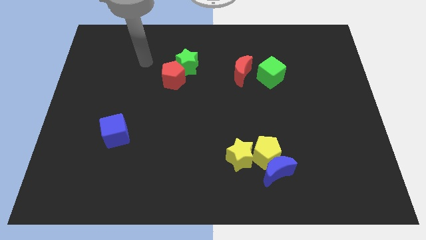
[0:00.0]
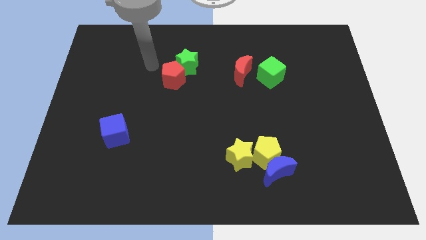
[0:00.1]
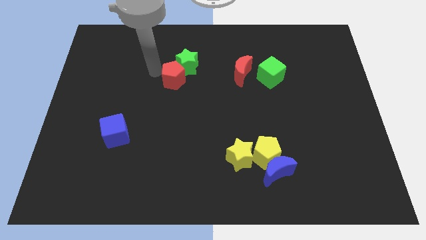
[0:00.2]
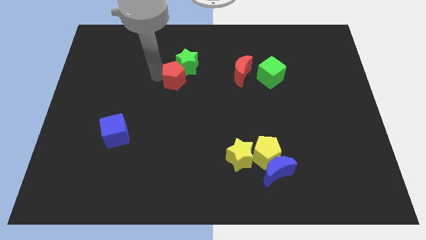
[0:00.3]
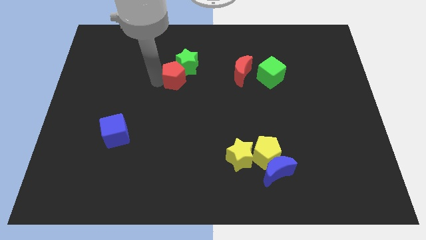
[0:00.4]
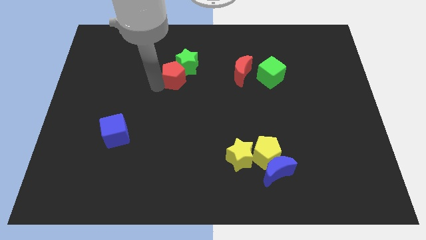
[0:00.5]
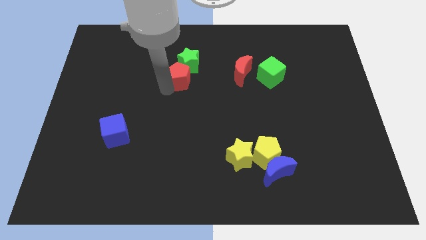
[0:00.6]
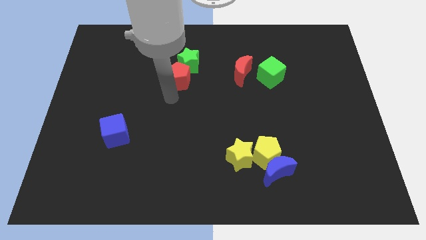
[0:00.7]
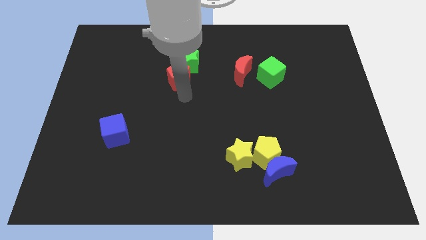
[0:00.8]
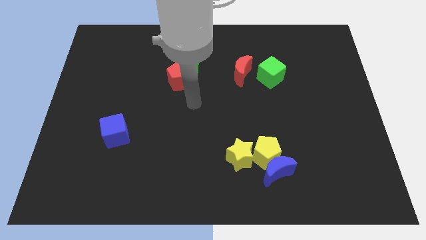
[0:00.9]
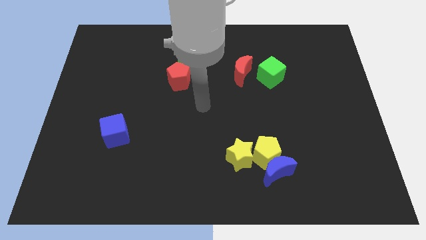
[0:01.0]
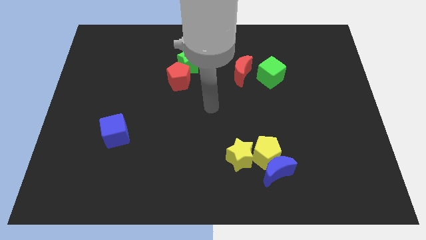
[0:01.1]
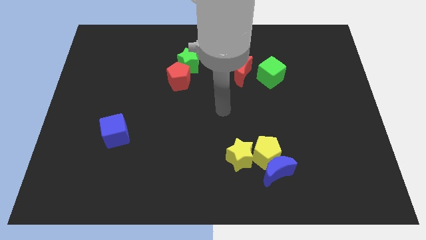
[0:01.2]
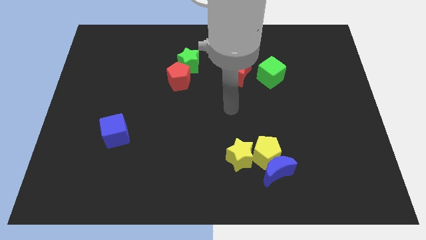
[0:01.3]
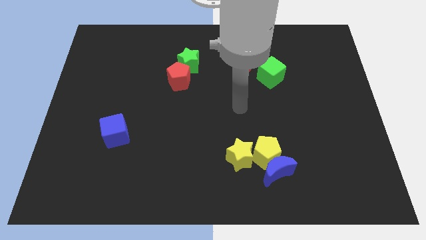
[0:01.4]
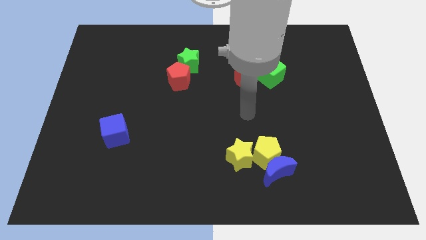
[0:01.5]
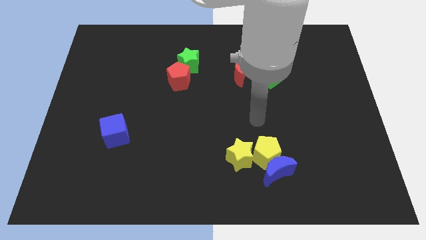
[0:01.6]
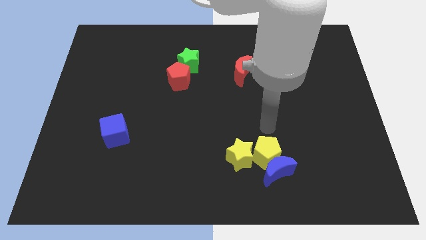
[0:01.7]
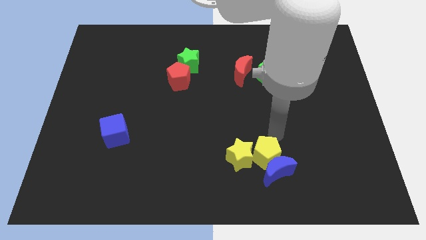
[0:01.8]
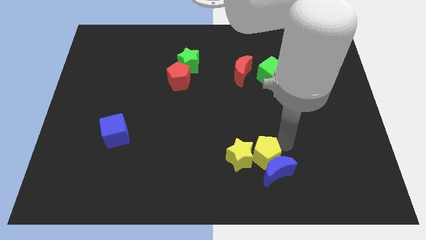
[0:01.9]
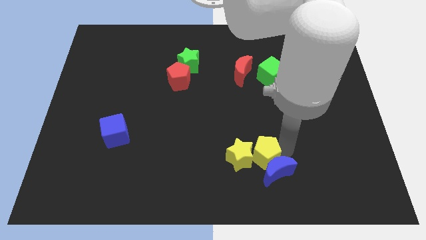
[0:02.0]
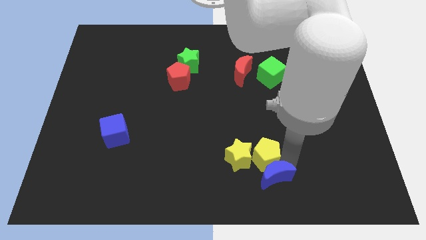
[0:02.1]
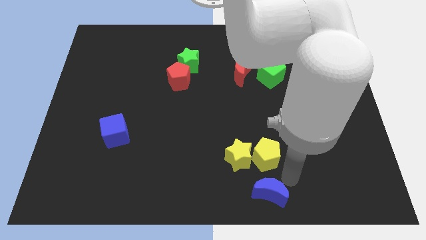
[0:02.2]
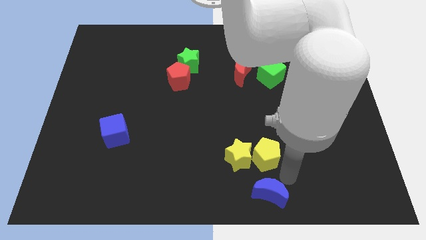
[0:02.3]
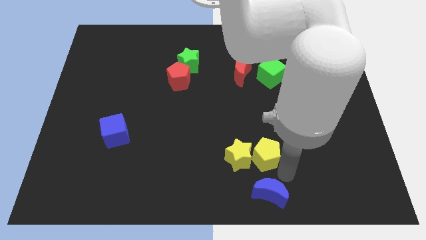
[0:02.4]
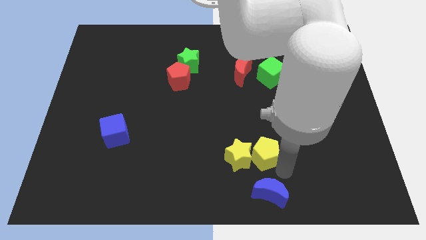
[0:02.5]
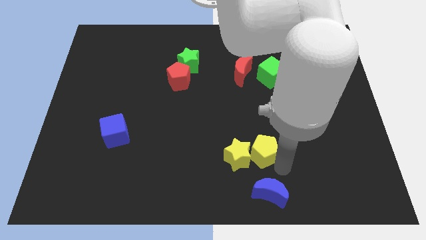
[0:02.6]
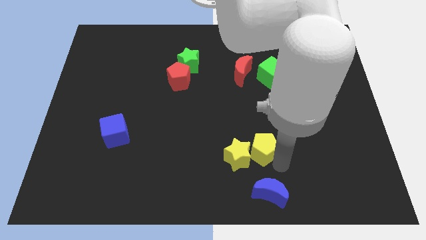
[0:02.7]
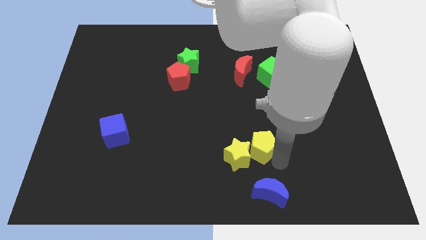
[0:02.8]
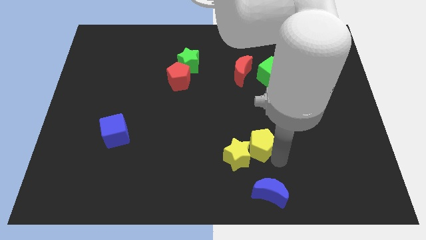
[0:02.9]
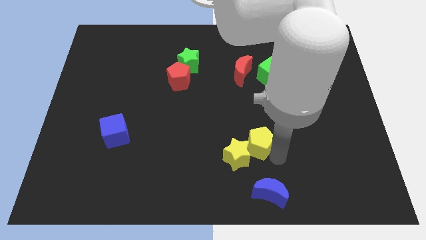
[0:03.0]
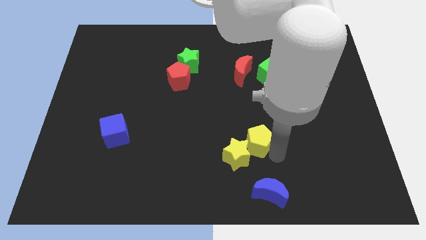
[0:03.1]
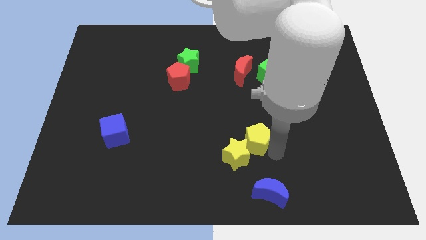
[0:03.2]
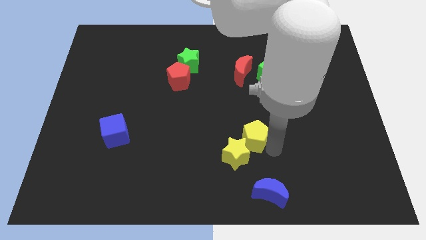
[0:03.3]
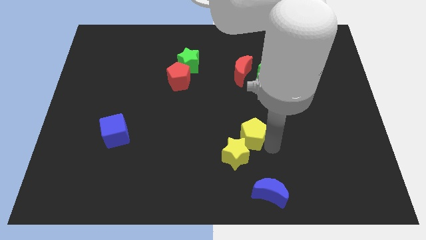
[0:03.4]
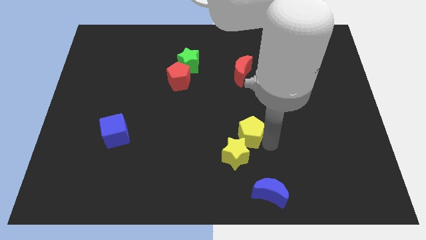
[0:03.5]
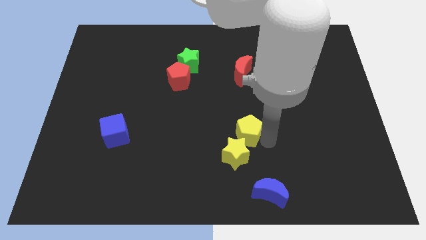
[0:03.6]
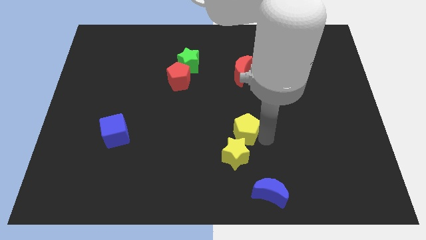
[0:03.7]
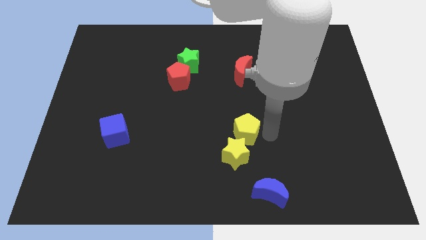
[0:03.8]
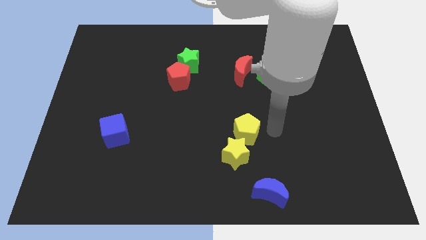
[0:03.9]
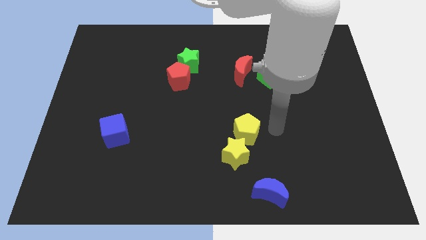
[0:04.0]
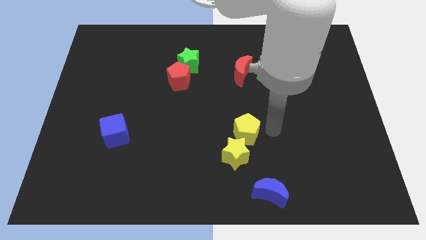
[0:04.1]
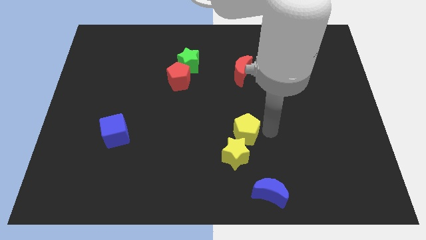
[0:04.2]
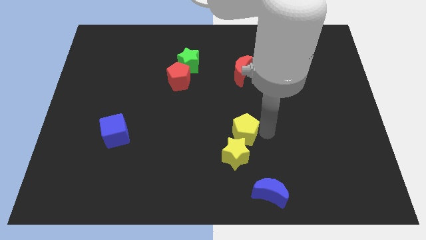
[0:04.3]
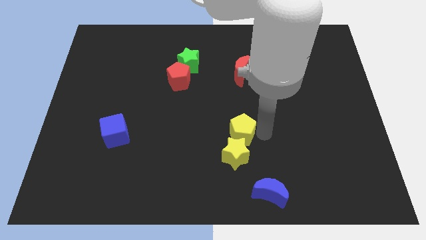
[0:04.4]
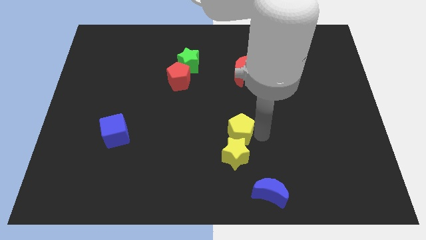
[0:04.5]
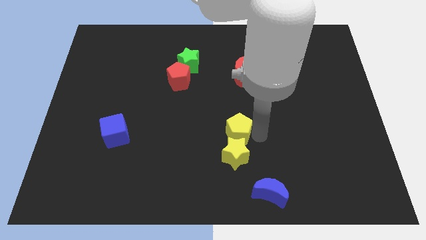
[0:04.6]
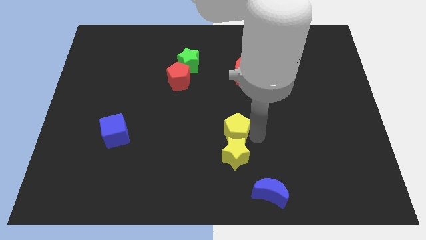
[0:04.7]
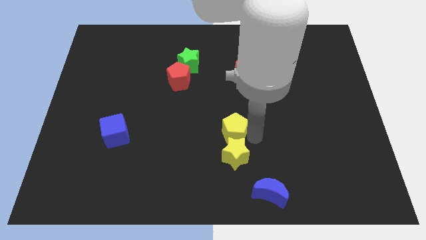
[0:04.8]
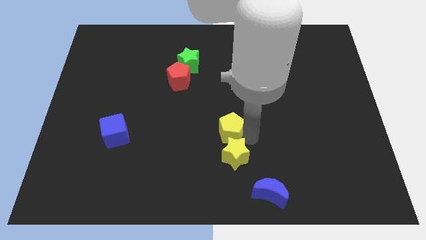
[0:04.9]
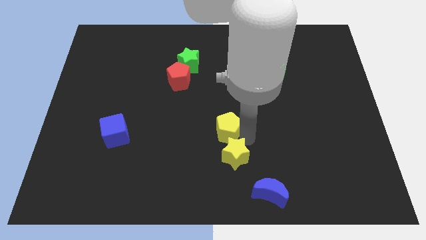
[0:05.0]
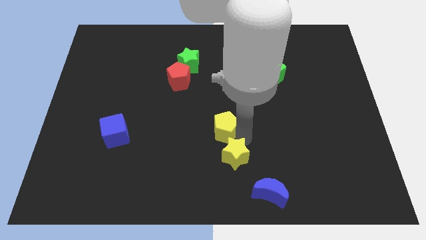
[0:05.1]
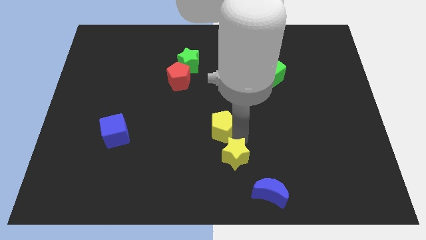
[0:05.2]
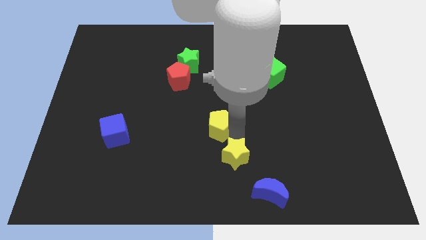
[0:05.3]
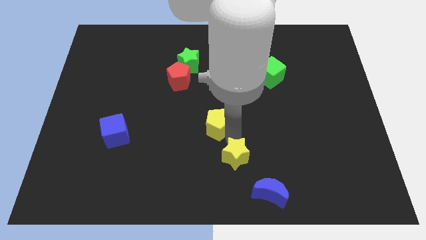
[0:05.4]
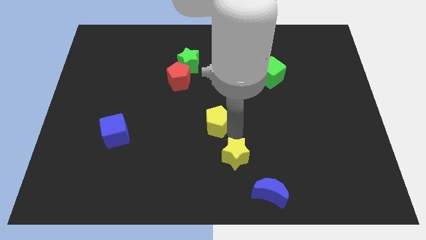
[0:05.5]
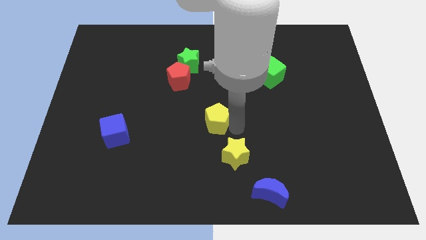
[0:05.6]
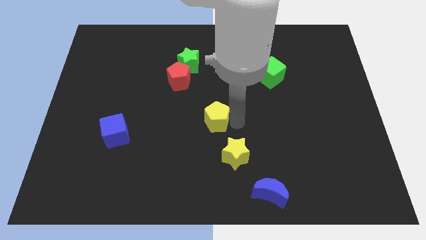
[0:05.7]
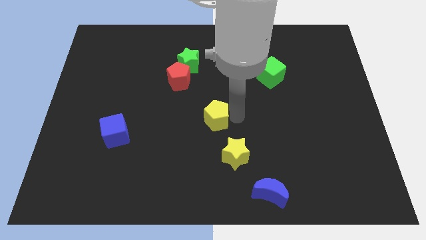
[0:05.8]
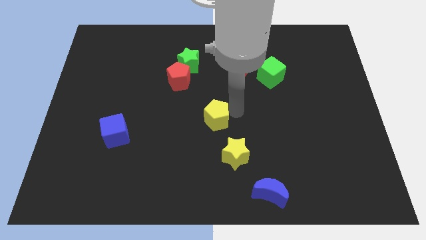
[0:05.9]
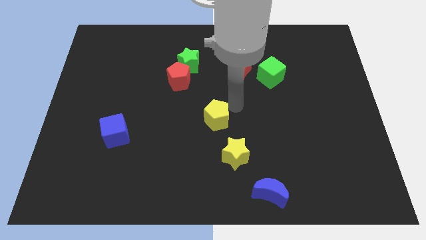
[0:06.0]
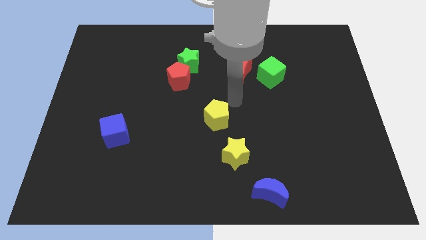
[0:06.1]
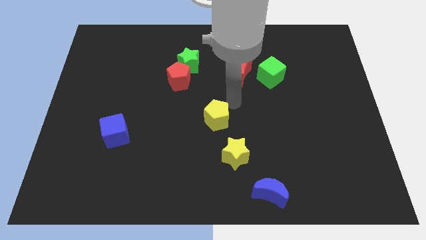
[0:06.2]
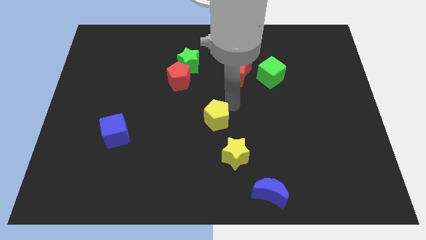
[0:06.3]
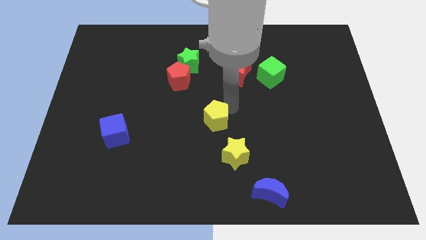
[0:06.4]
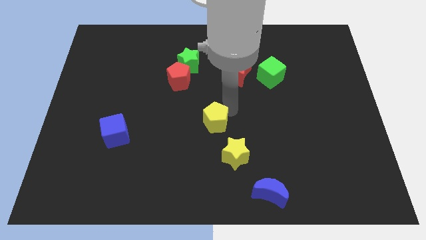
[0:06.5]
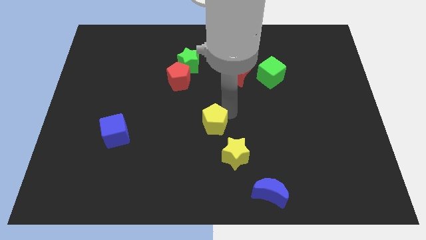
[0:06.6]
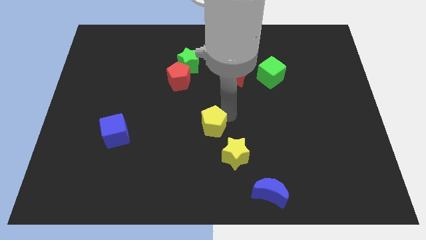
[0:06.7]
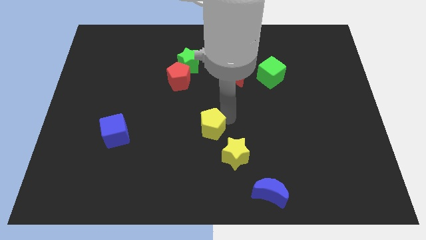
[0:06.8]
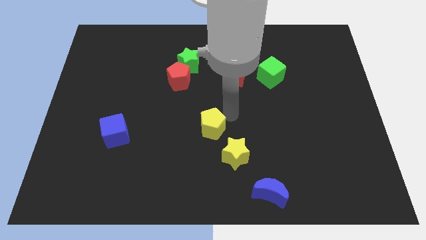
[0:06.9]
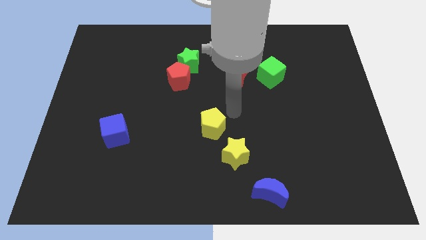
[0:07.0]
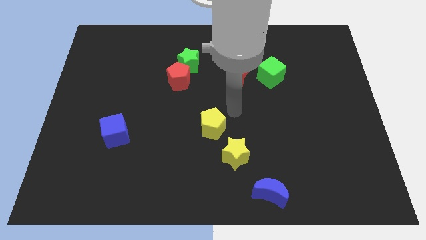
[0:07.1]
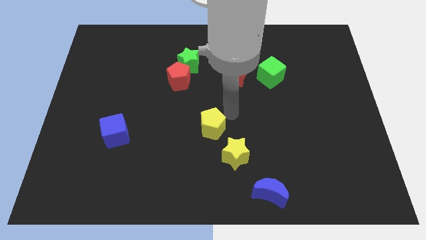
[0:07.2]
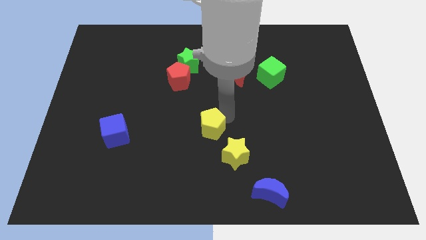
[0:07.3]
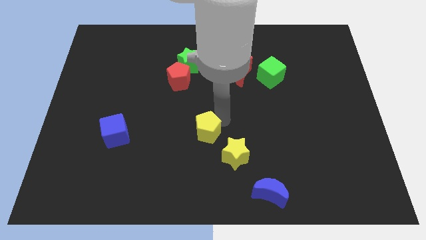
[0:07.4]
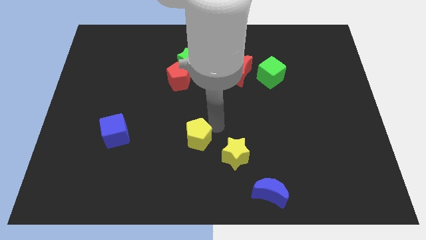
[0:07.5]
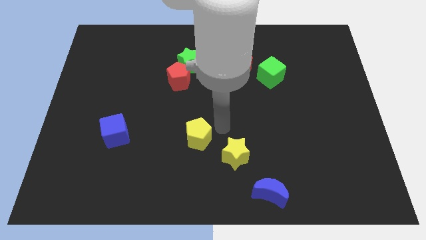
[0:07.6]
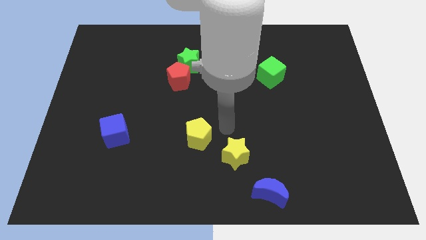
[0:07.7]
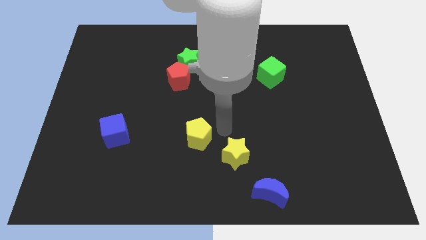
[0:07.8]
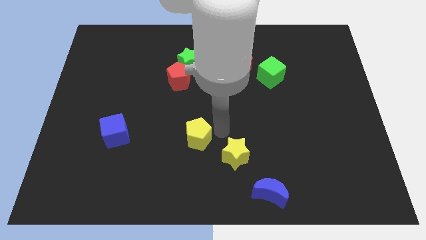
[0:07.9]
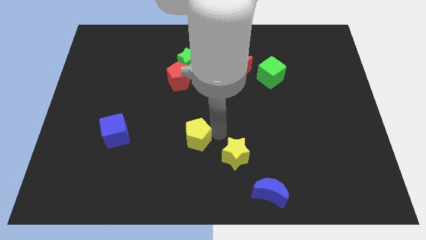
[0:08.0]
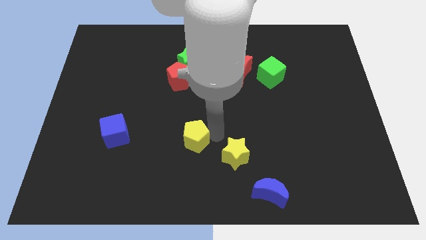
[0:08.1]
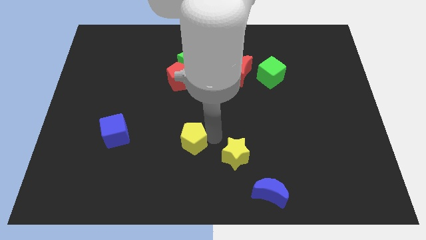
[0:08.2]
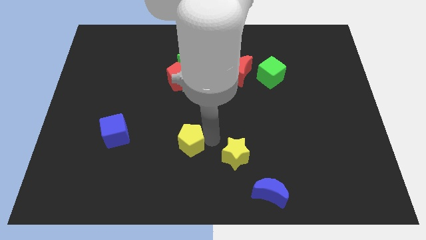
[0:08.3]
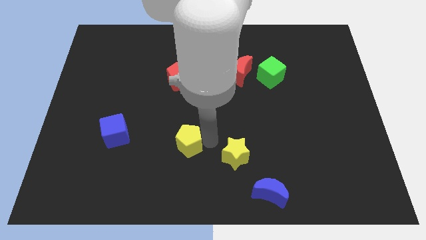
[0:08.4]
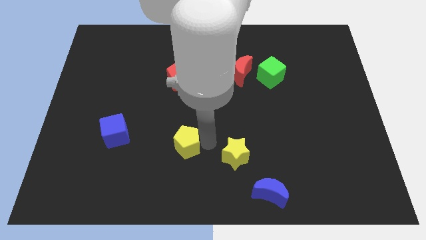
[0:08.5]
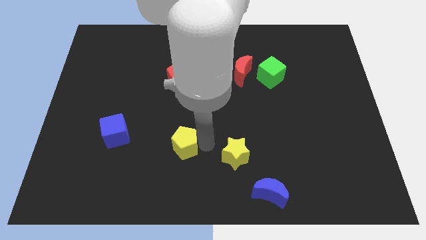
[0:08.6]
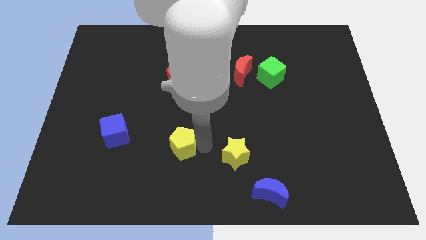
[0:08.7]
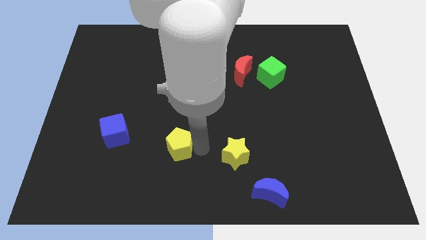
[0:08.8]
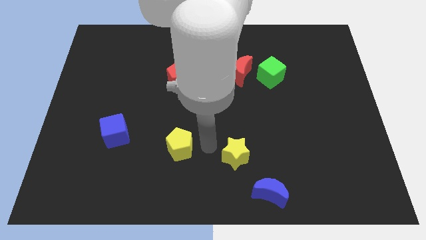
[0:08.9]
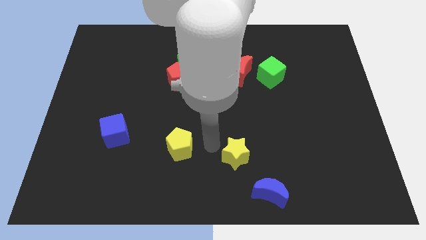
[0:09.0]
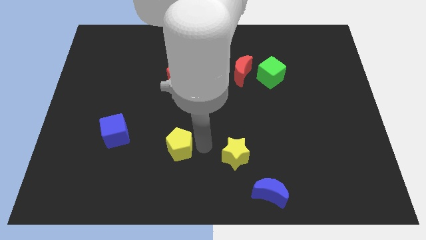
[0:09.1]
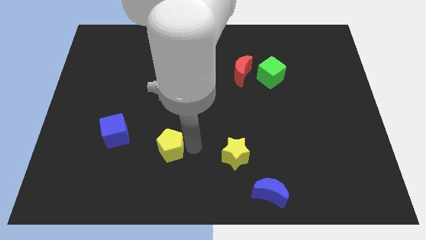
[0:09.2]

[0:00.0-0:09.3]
push the yellow pentagon to the left
